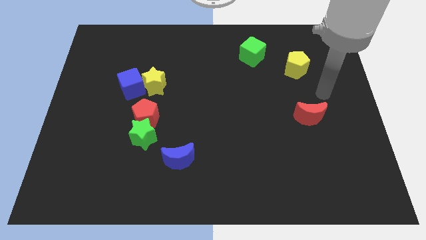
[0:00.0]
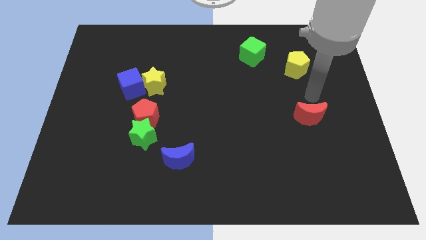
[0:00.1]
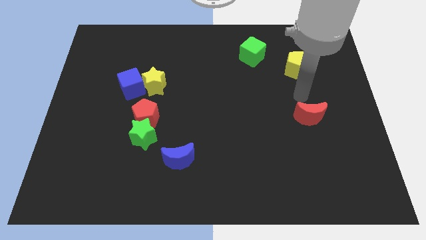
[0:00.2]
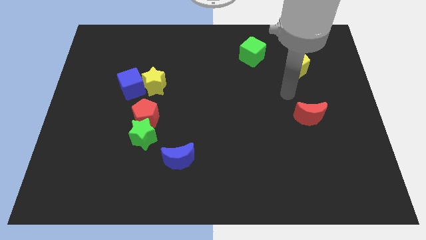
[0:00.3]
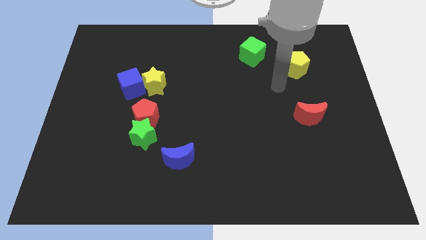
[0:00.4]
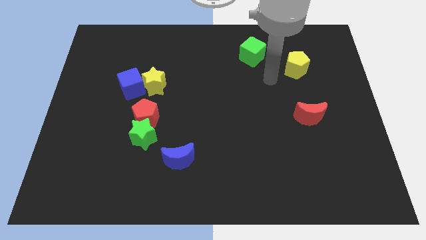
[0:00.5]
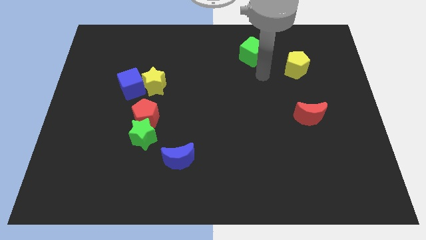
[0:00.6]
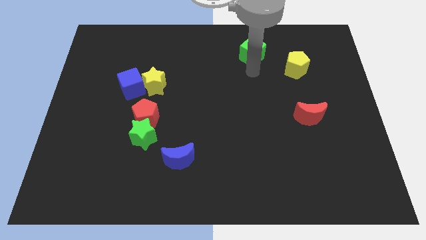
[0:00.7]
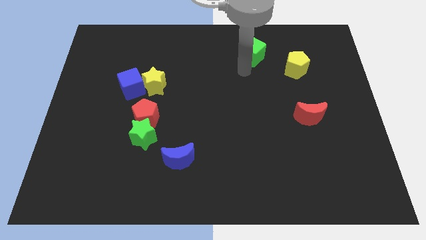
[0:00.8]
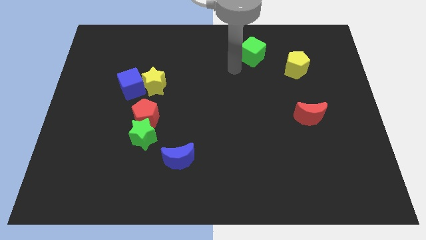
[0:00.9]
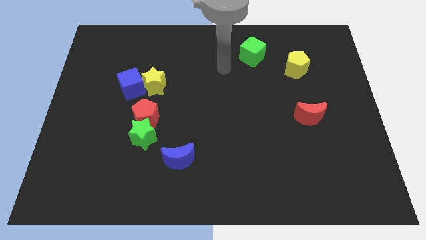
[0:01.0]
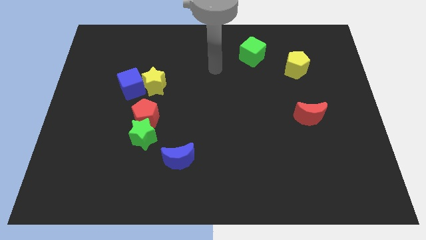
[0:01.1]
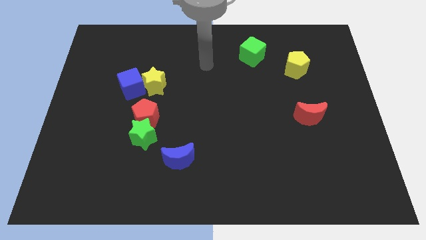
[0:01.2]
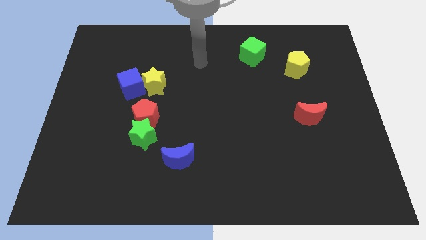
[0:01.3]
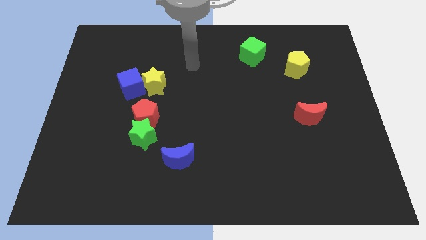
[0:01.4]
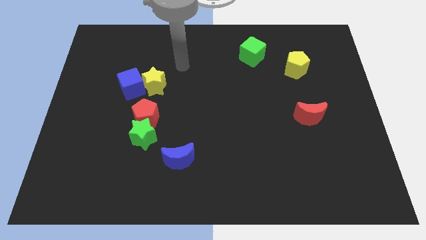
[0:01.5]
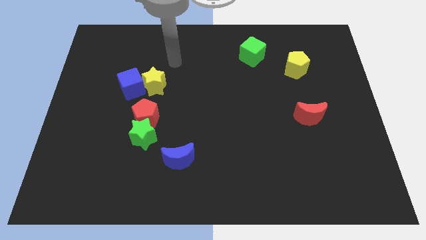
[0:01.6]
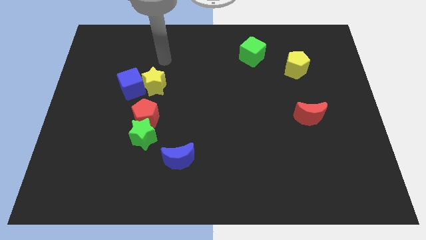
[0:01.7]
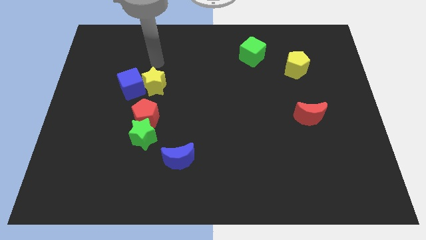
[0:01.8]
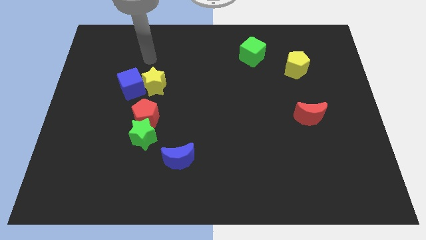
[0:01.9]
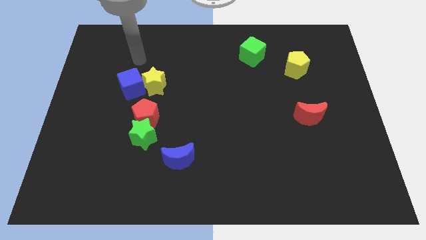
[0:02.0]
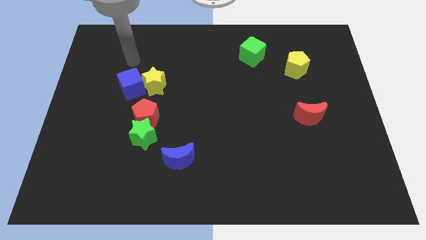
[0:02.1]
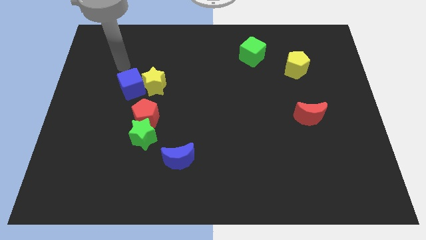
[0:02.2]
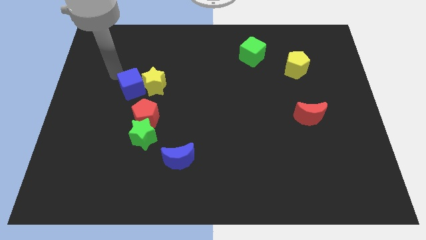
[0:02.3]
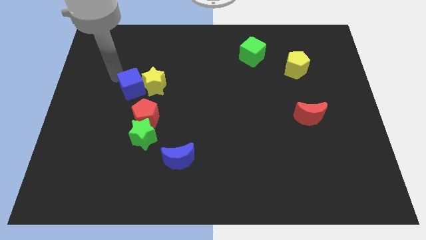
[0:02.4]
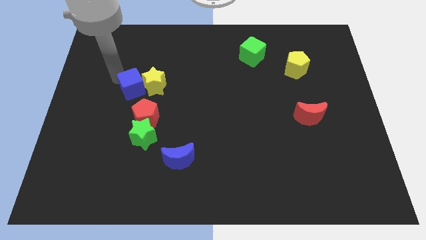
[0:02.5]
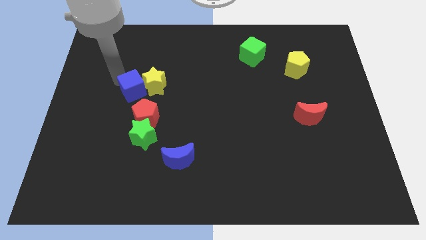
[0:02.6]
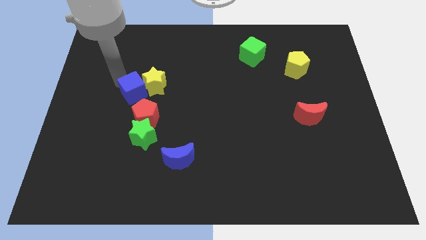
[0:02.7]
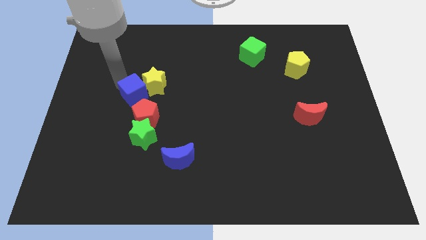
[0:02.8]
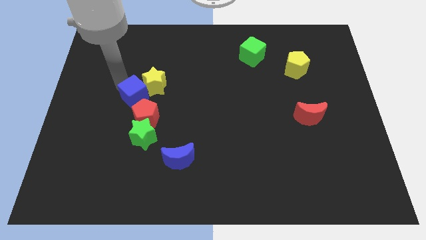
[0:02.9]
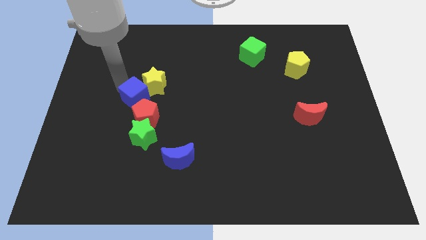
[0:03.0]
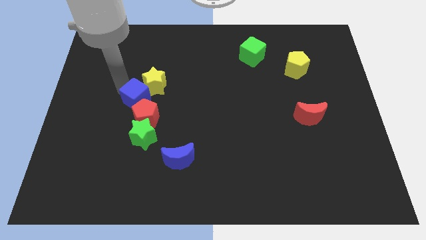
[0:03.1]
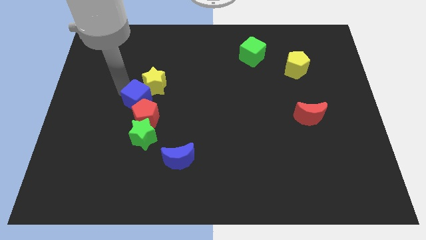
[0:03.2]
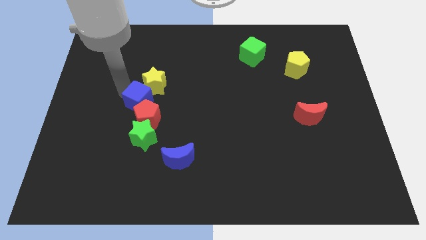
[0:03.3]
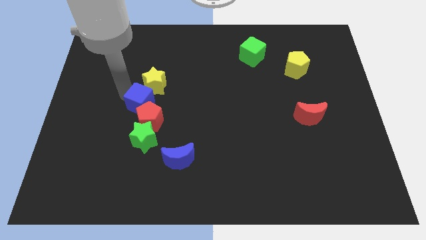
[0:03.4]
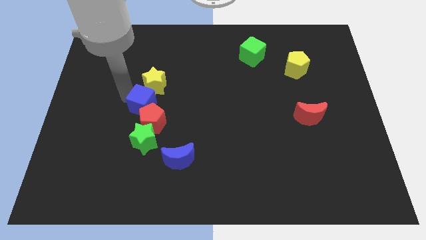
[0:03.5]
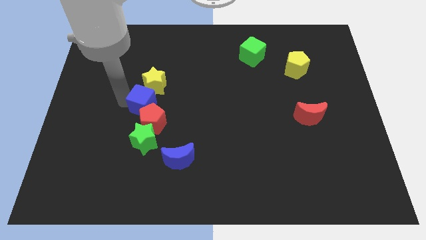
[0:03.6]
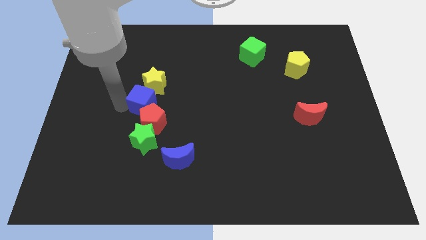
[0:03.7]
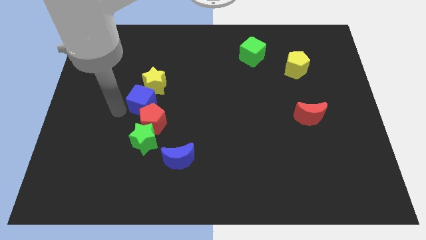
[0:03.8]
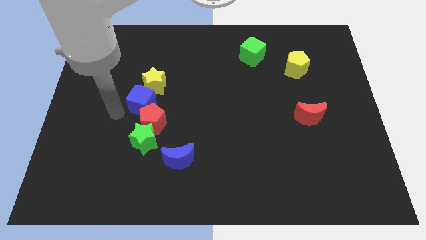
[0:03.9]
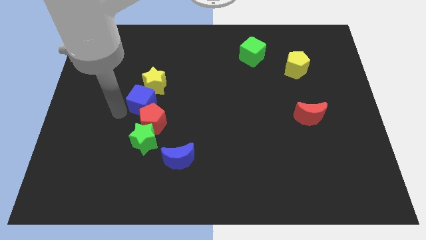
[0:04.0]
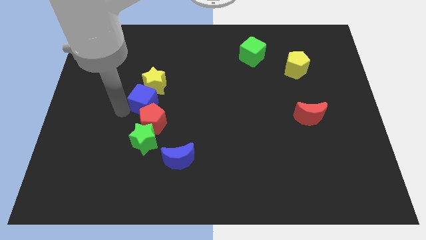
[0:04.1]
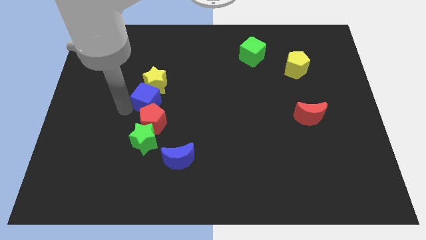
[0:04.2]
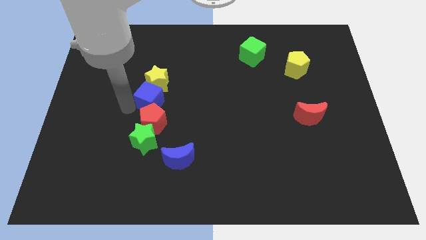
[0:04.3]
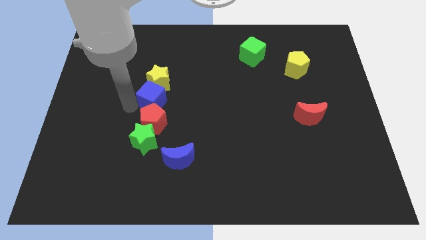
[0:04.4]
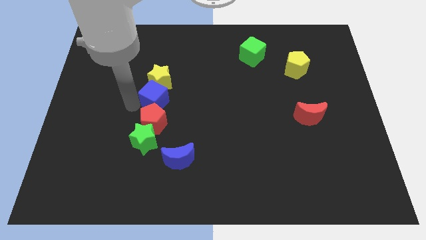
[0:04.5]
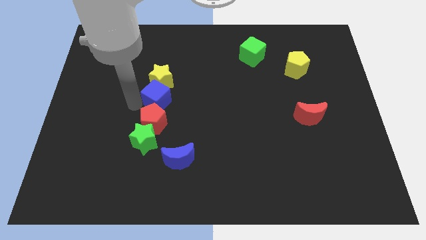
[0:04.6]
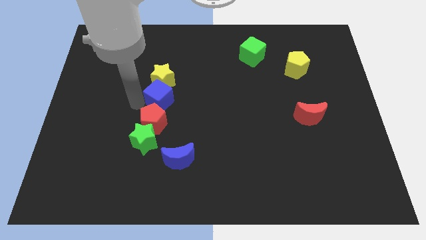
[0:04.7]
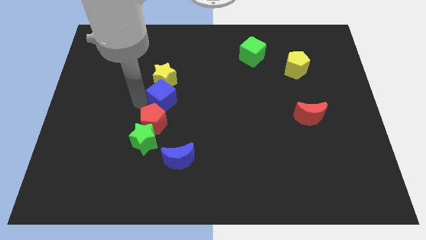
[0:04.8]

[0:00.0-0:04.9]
slightly push the blue cube right

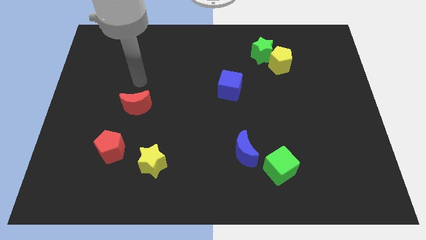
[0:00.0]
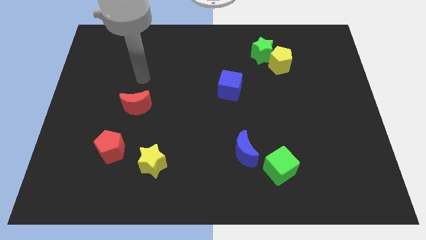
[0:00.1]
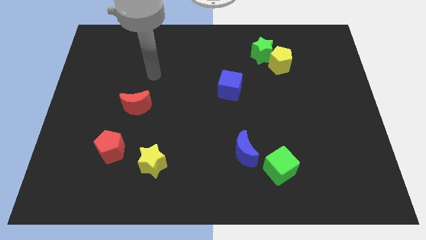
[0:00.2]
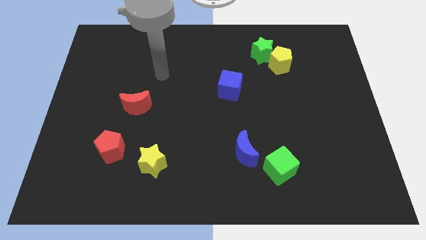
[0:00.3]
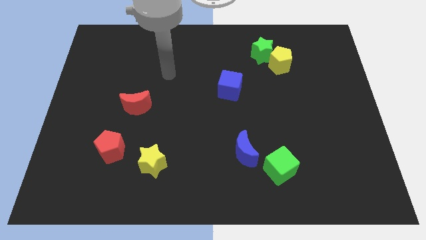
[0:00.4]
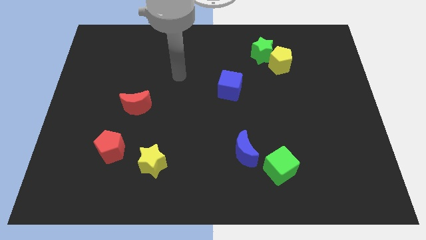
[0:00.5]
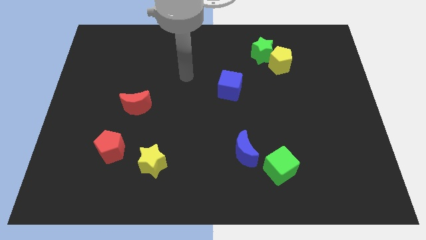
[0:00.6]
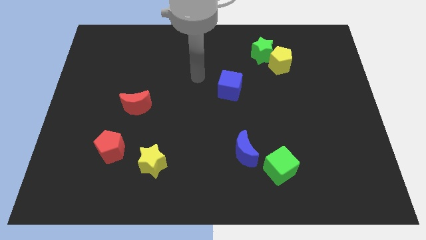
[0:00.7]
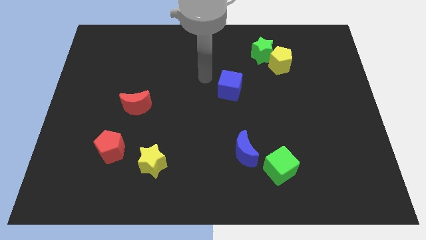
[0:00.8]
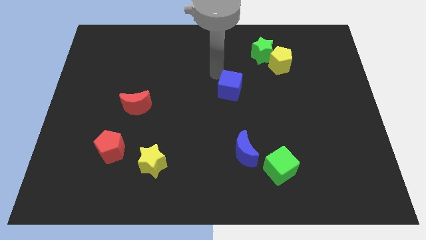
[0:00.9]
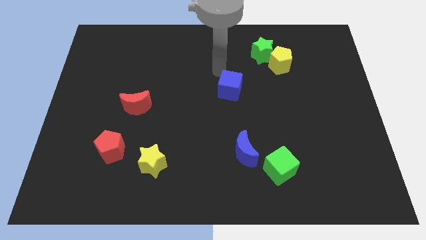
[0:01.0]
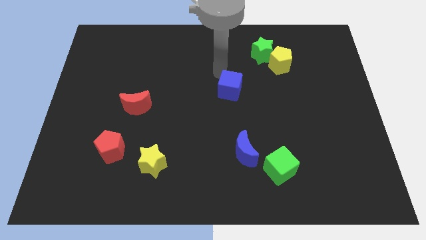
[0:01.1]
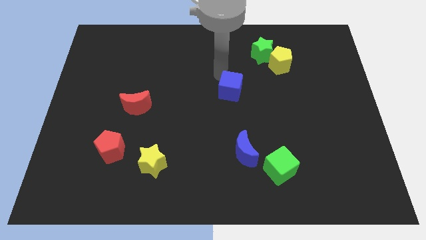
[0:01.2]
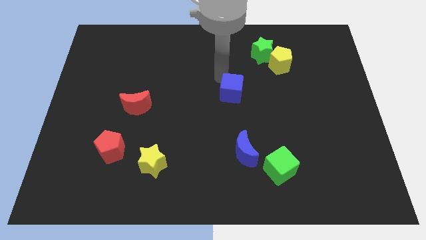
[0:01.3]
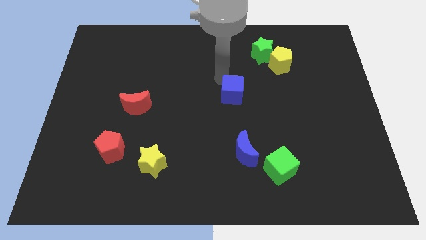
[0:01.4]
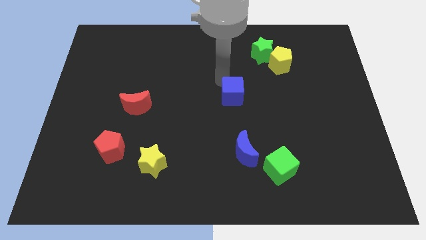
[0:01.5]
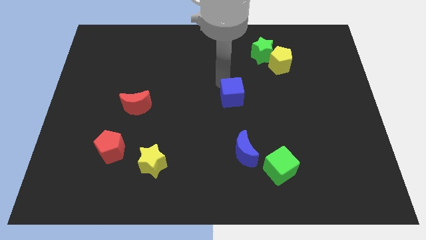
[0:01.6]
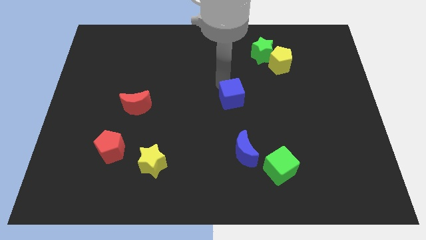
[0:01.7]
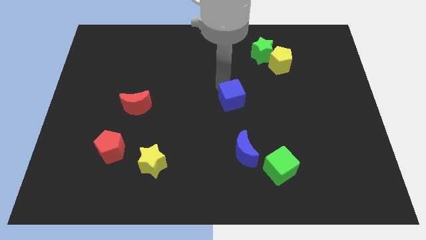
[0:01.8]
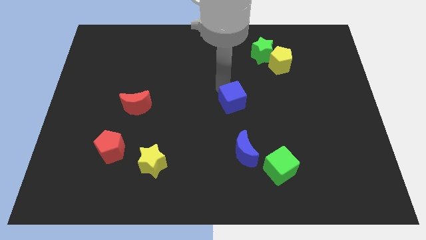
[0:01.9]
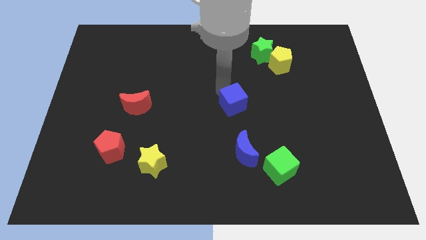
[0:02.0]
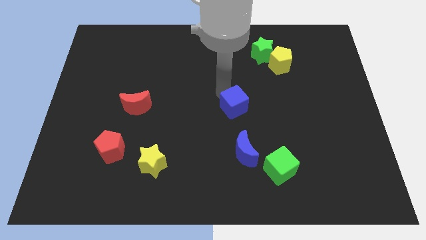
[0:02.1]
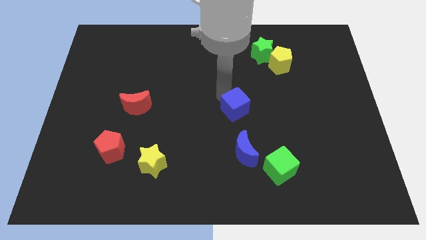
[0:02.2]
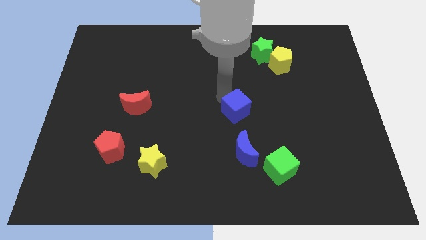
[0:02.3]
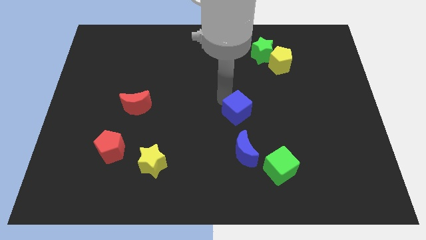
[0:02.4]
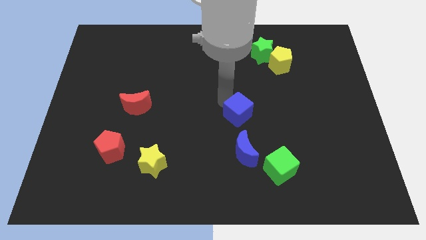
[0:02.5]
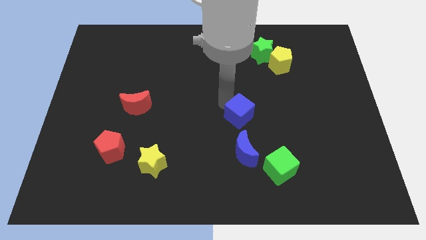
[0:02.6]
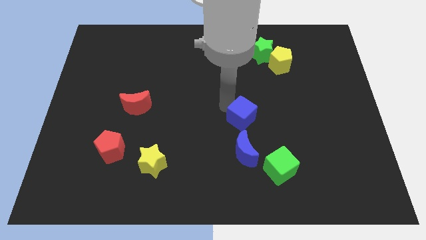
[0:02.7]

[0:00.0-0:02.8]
move the blue cube down and right a little bit
